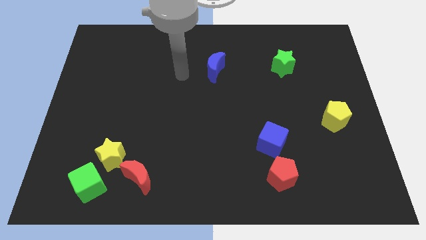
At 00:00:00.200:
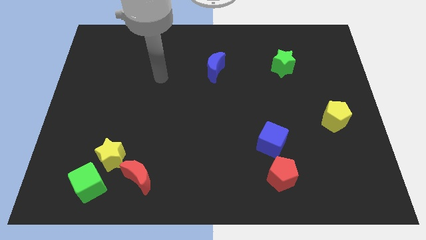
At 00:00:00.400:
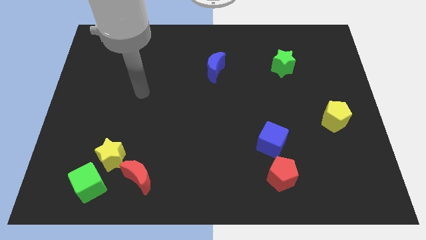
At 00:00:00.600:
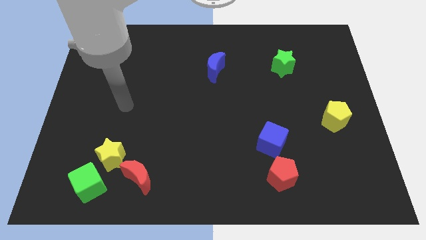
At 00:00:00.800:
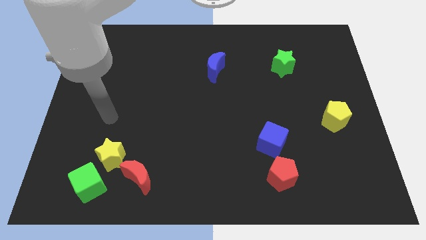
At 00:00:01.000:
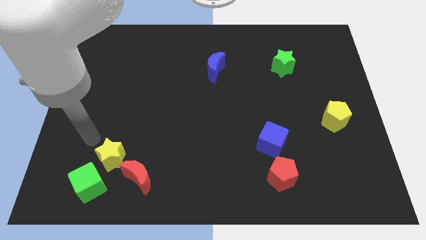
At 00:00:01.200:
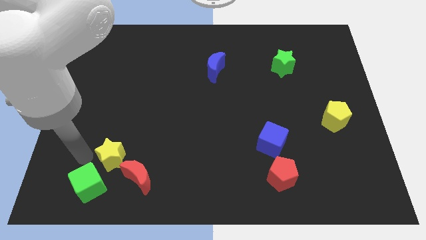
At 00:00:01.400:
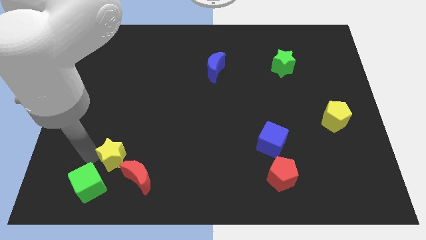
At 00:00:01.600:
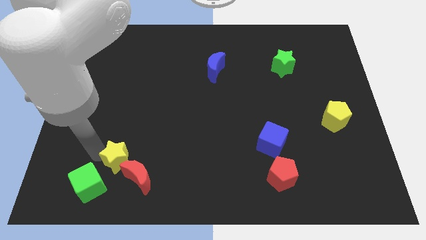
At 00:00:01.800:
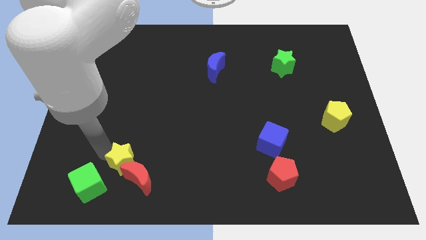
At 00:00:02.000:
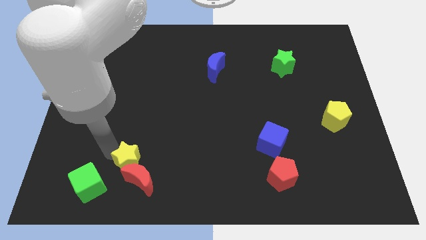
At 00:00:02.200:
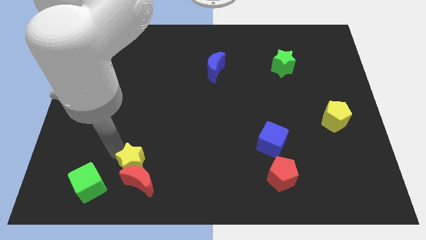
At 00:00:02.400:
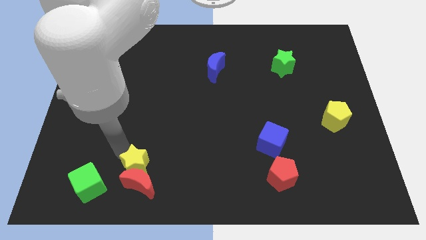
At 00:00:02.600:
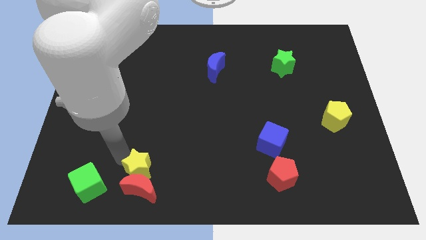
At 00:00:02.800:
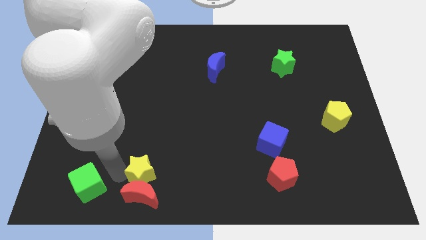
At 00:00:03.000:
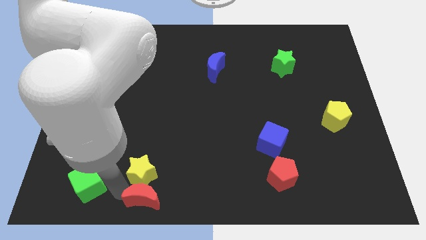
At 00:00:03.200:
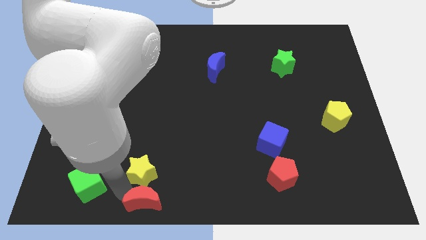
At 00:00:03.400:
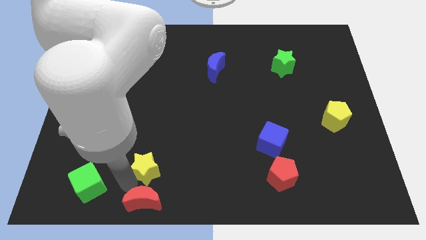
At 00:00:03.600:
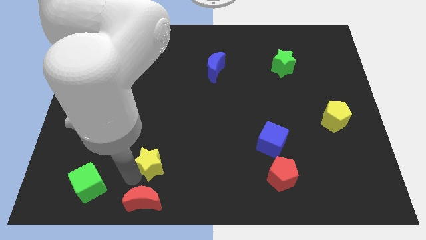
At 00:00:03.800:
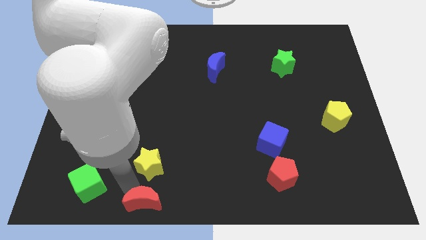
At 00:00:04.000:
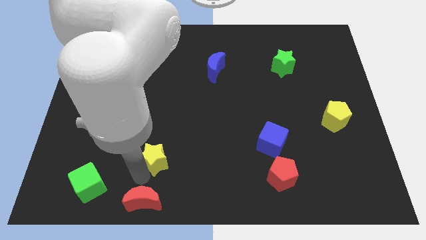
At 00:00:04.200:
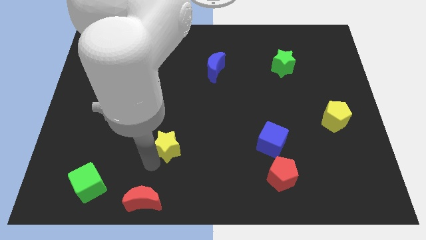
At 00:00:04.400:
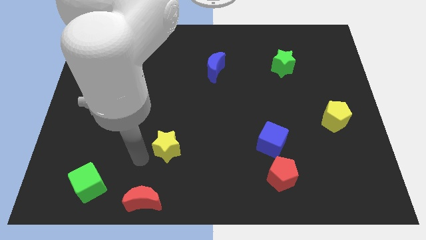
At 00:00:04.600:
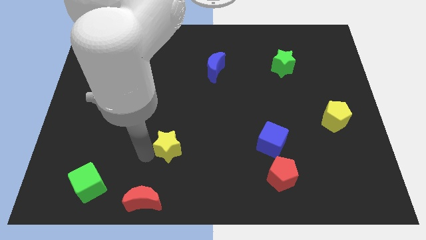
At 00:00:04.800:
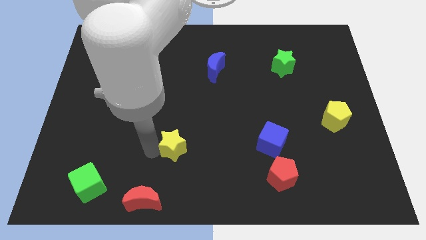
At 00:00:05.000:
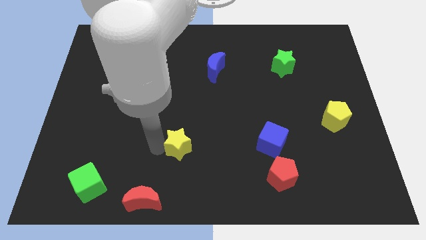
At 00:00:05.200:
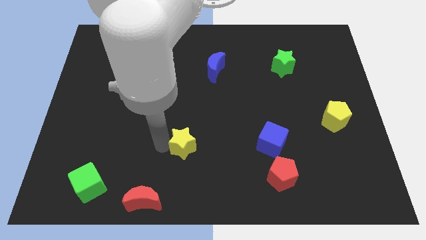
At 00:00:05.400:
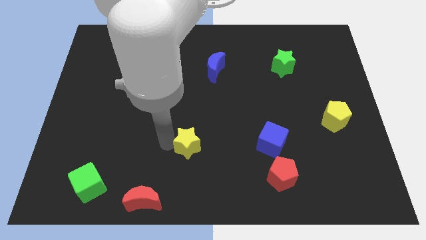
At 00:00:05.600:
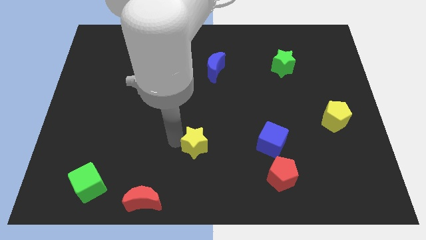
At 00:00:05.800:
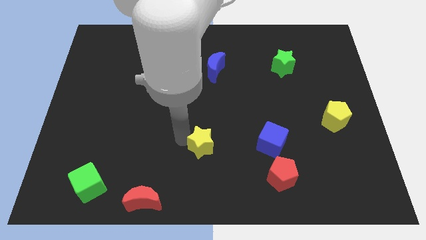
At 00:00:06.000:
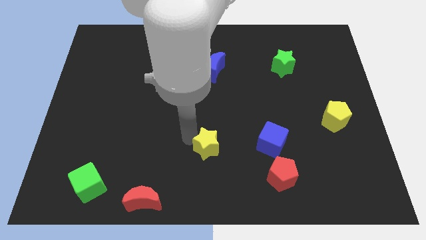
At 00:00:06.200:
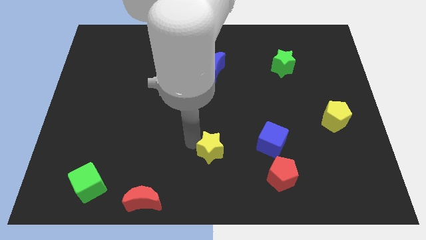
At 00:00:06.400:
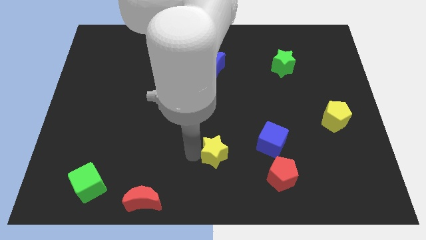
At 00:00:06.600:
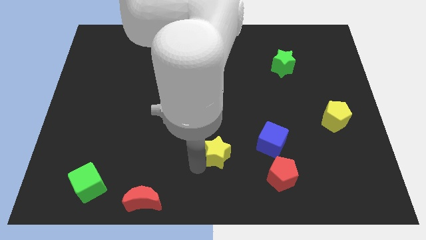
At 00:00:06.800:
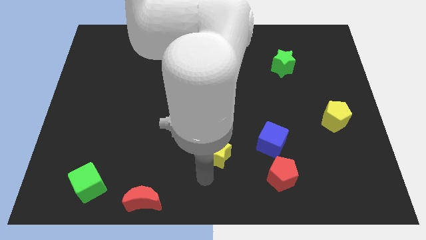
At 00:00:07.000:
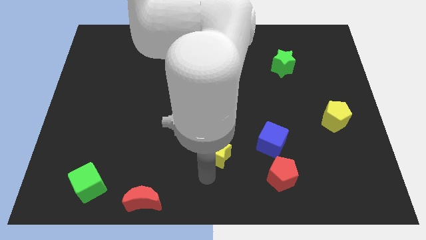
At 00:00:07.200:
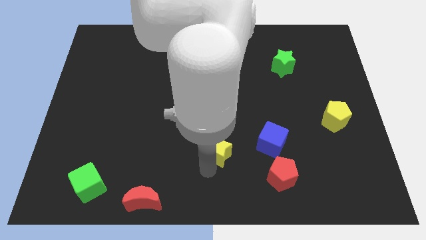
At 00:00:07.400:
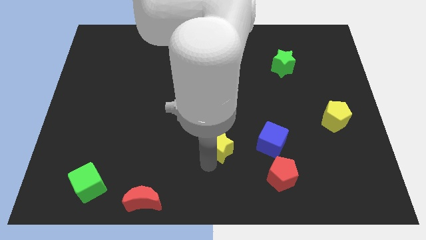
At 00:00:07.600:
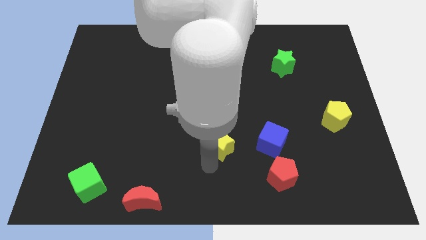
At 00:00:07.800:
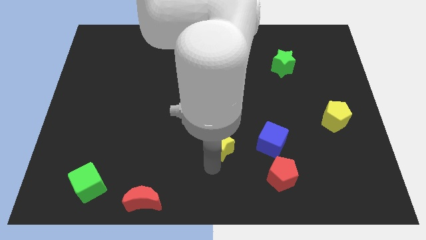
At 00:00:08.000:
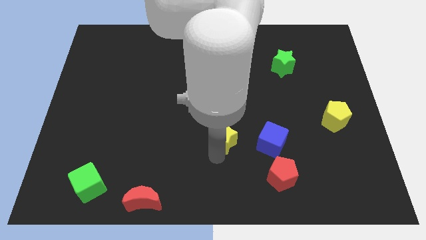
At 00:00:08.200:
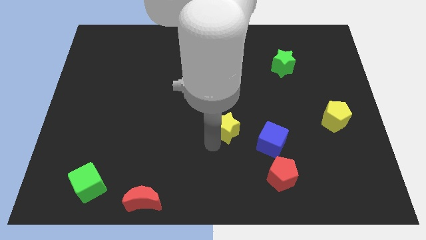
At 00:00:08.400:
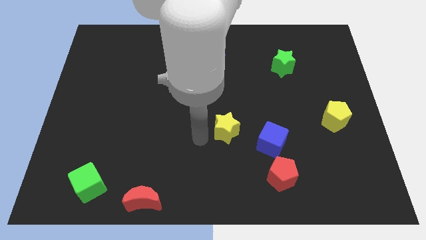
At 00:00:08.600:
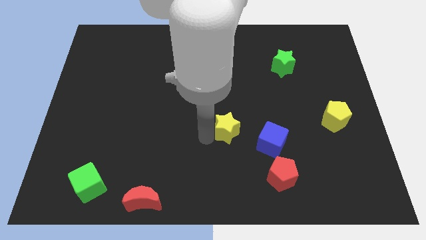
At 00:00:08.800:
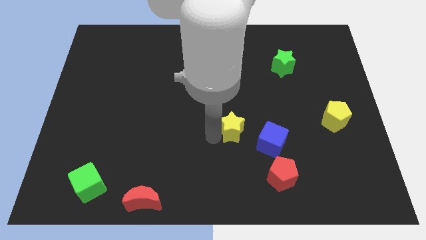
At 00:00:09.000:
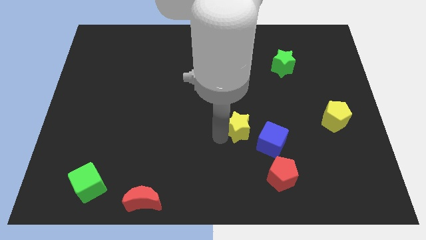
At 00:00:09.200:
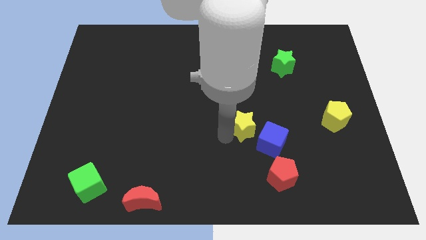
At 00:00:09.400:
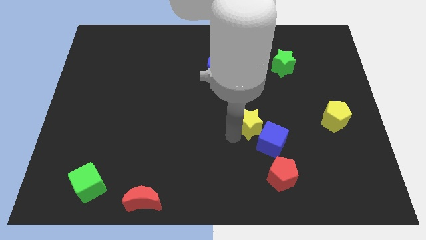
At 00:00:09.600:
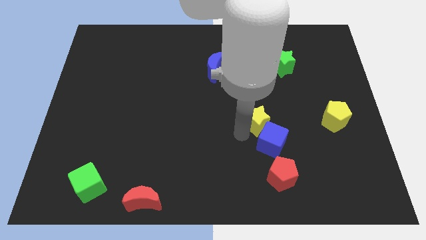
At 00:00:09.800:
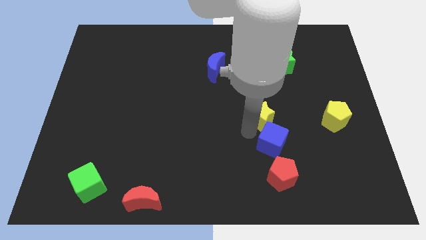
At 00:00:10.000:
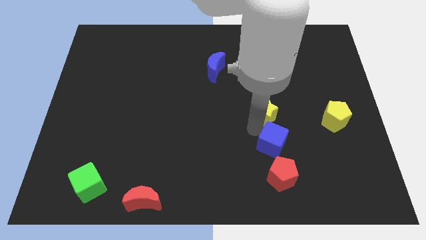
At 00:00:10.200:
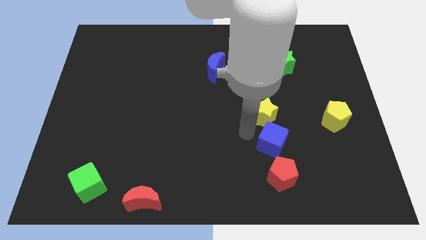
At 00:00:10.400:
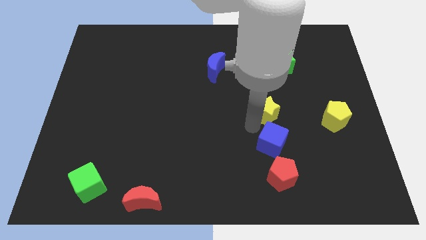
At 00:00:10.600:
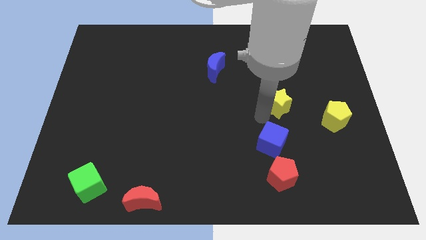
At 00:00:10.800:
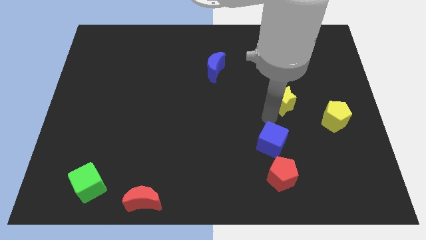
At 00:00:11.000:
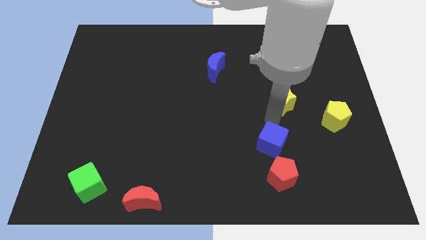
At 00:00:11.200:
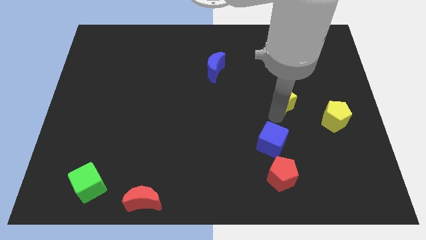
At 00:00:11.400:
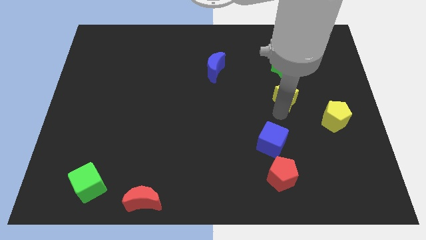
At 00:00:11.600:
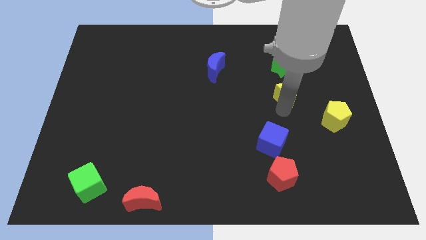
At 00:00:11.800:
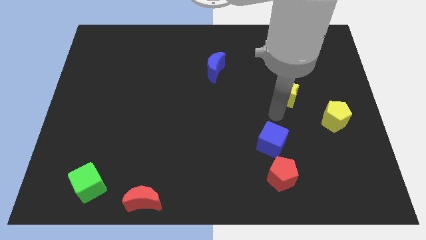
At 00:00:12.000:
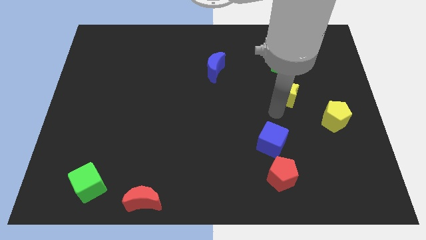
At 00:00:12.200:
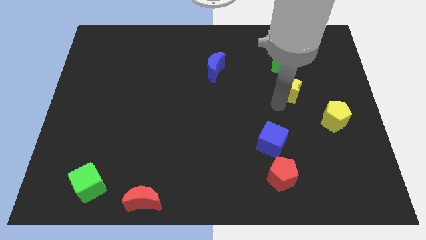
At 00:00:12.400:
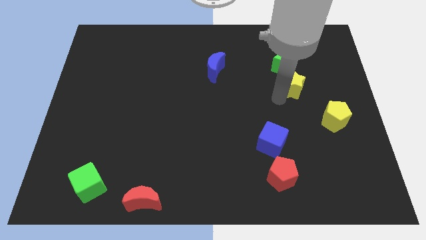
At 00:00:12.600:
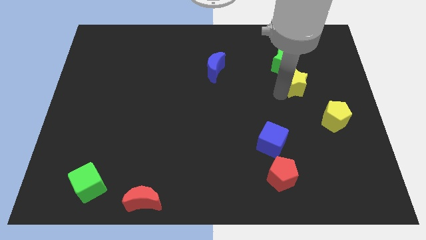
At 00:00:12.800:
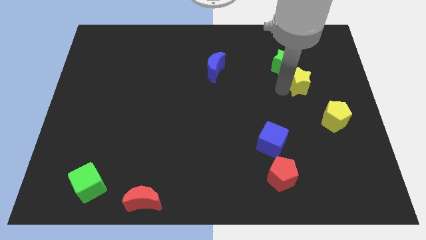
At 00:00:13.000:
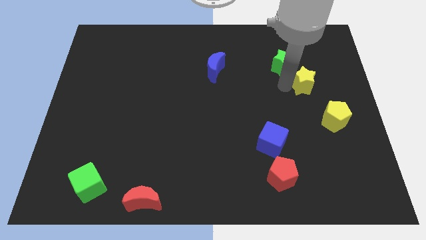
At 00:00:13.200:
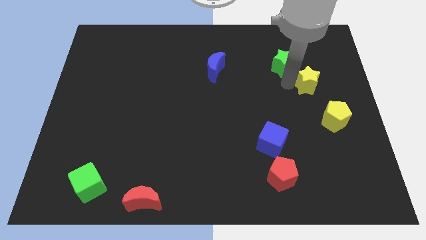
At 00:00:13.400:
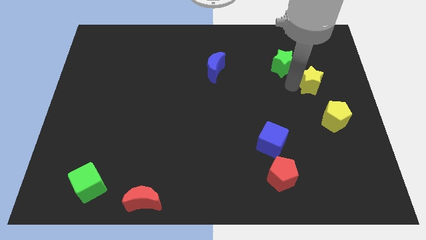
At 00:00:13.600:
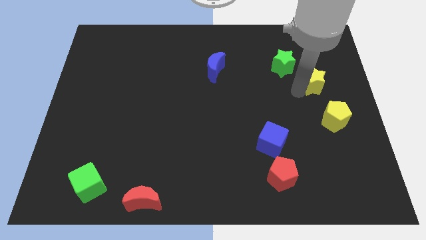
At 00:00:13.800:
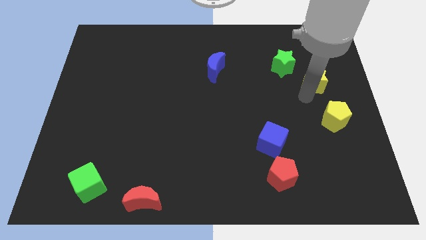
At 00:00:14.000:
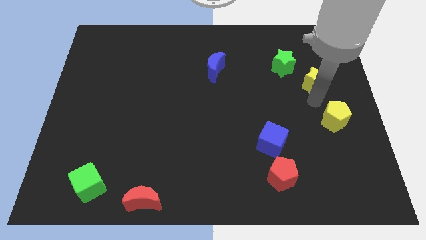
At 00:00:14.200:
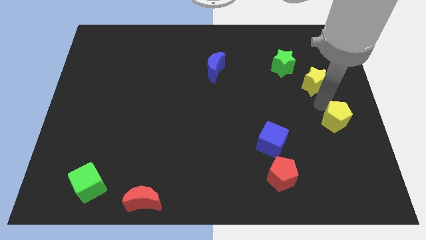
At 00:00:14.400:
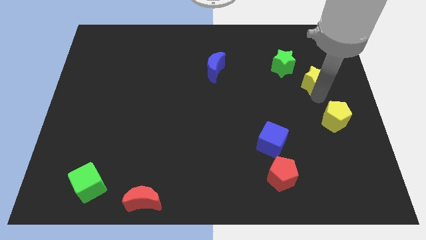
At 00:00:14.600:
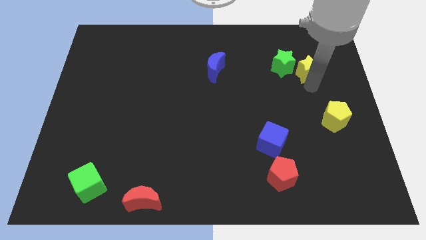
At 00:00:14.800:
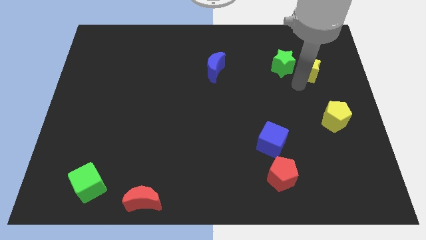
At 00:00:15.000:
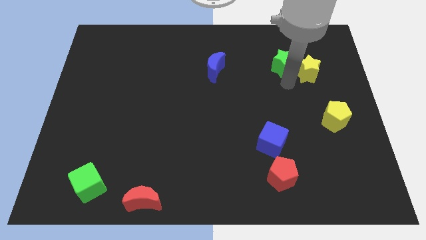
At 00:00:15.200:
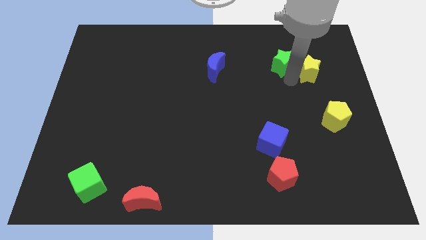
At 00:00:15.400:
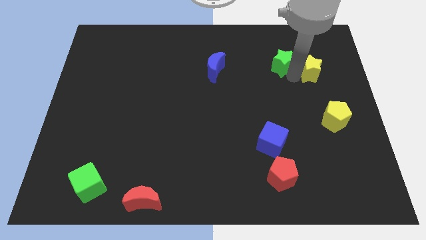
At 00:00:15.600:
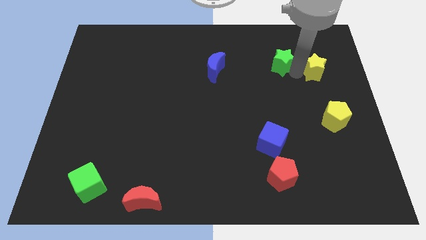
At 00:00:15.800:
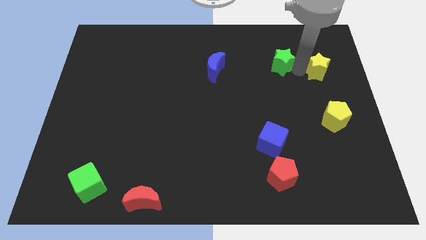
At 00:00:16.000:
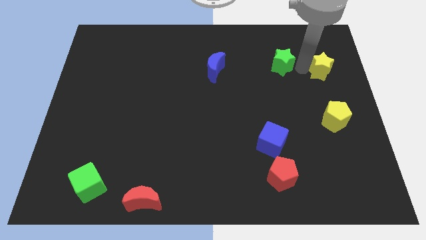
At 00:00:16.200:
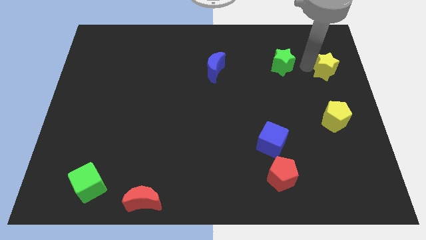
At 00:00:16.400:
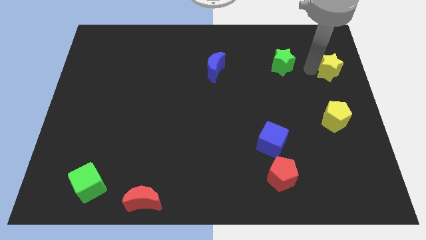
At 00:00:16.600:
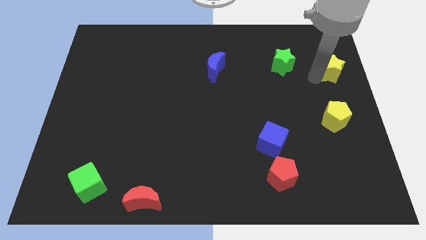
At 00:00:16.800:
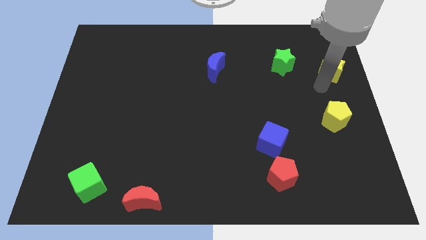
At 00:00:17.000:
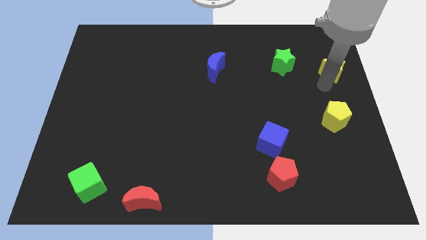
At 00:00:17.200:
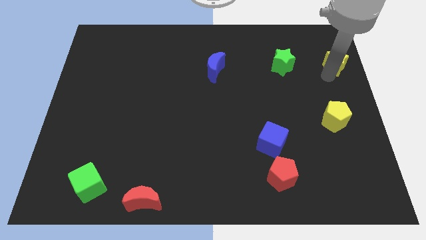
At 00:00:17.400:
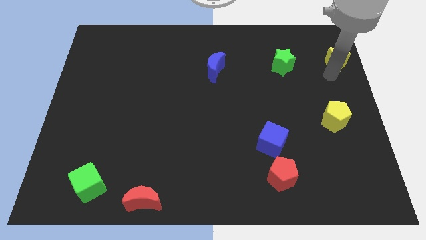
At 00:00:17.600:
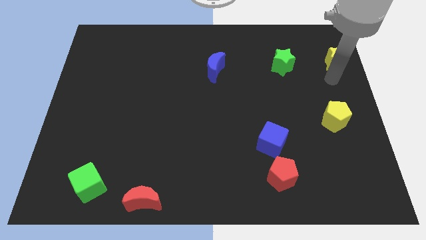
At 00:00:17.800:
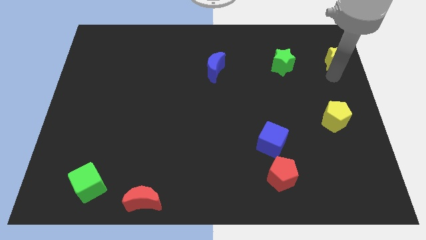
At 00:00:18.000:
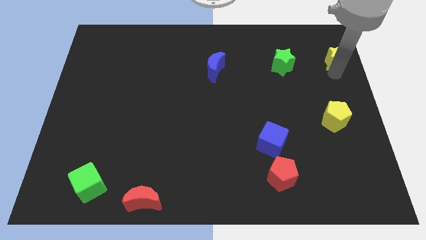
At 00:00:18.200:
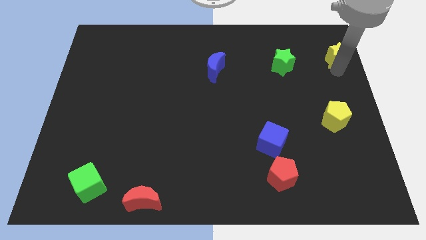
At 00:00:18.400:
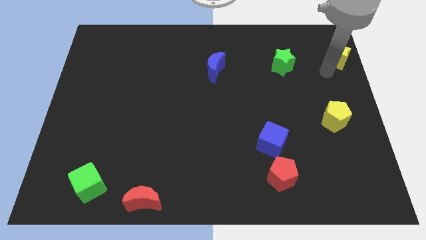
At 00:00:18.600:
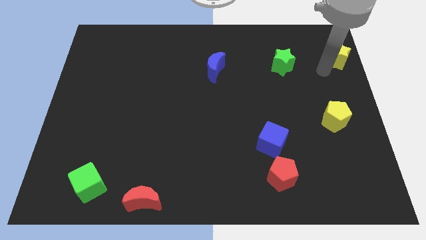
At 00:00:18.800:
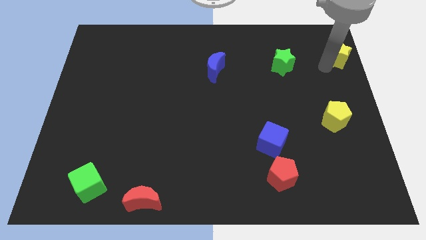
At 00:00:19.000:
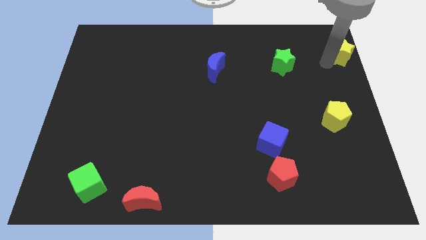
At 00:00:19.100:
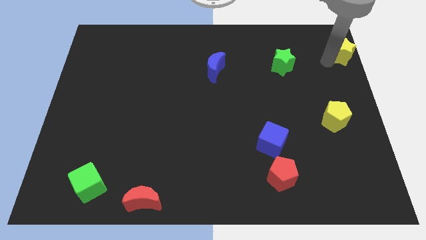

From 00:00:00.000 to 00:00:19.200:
push the yellow star to the top right
